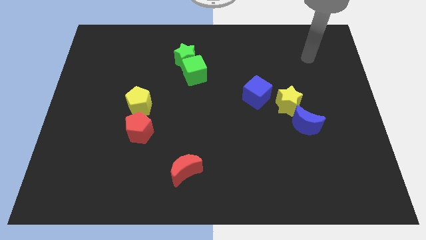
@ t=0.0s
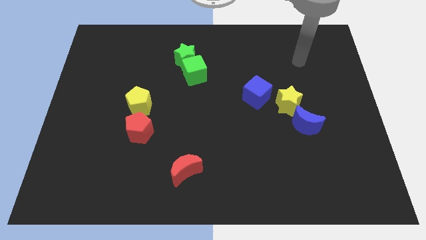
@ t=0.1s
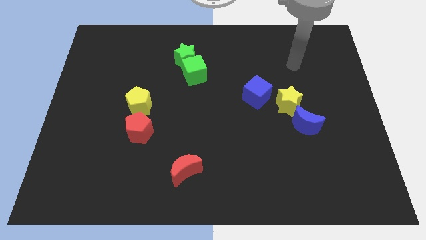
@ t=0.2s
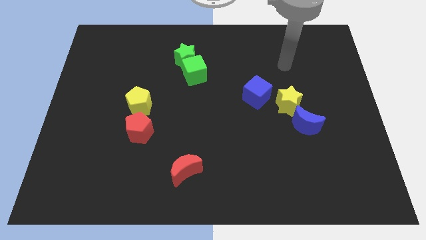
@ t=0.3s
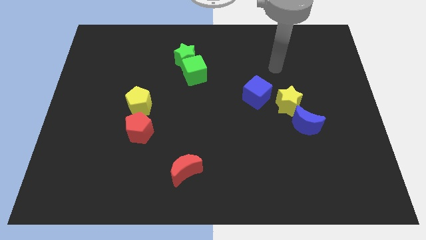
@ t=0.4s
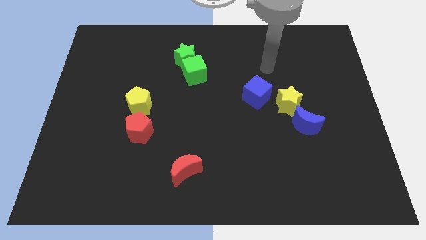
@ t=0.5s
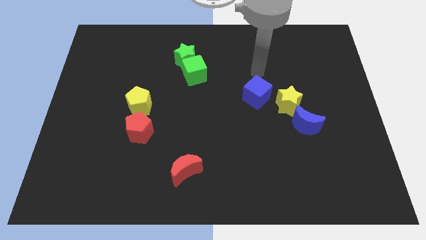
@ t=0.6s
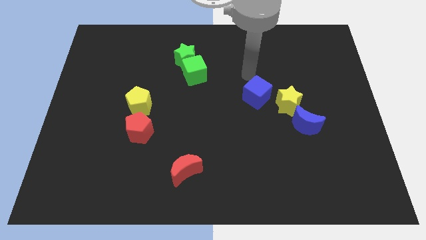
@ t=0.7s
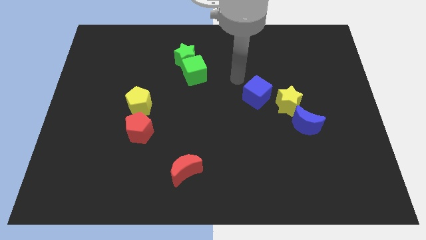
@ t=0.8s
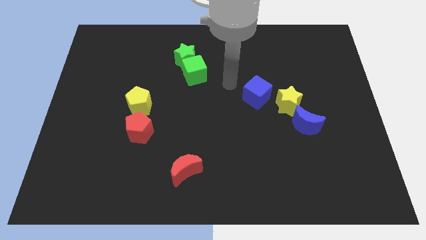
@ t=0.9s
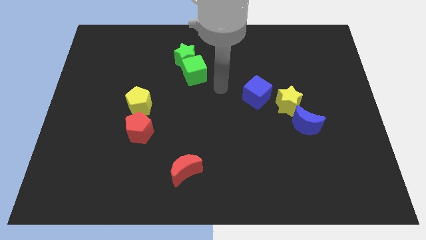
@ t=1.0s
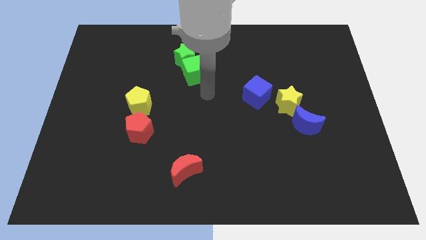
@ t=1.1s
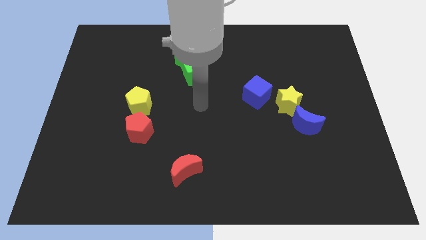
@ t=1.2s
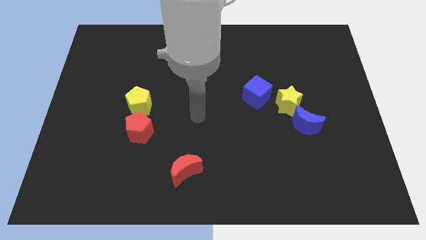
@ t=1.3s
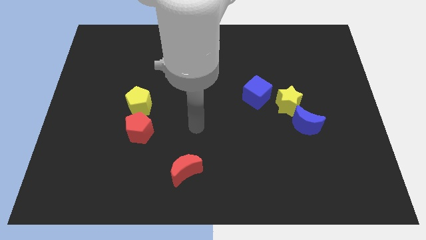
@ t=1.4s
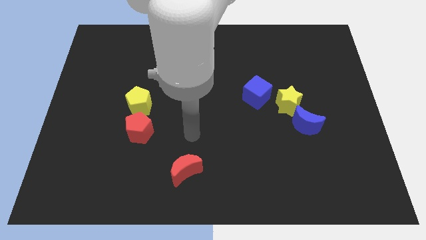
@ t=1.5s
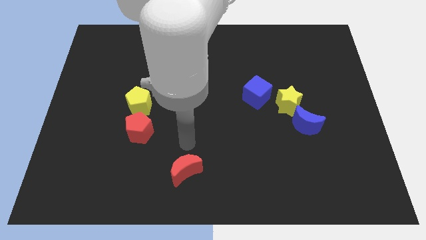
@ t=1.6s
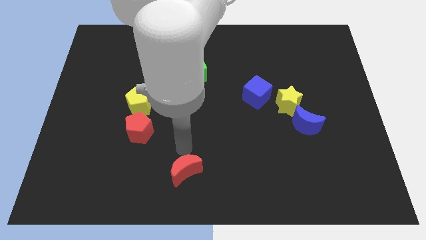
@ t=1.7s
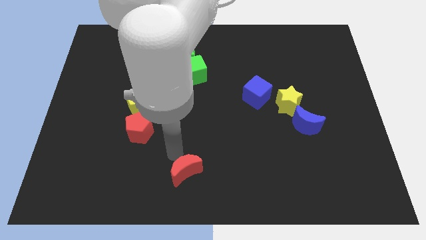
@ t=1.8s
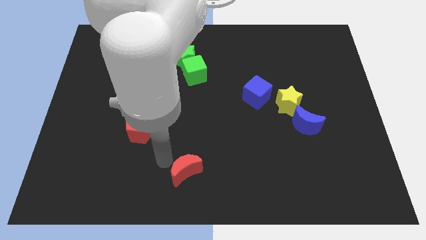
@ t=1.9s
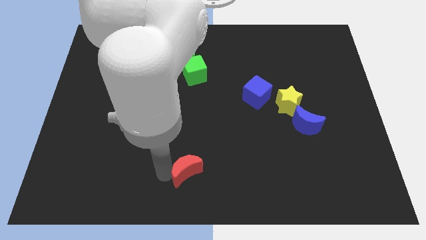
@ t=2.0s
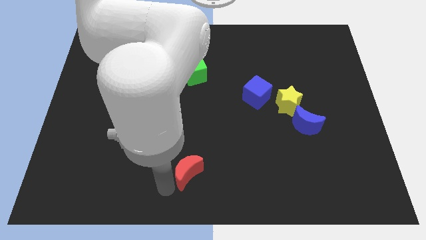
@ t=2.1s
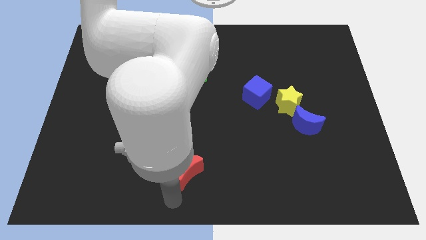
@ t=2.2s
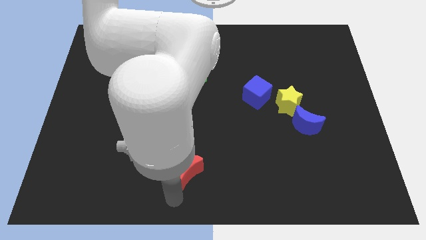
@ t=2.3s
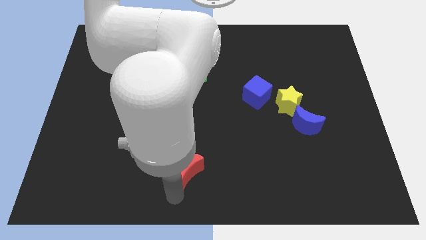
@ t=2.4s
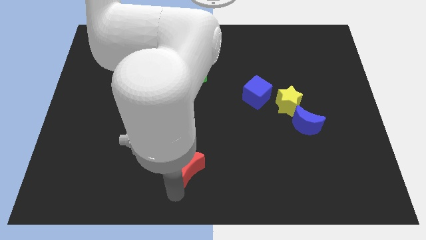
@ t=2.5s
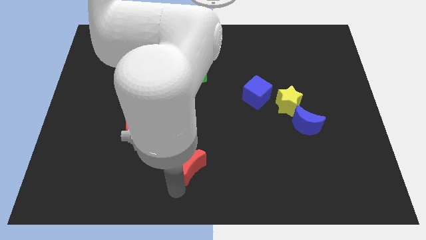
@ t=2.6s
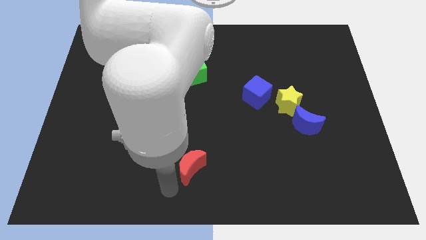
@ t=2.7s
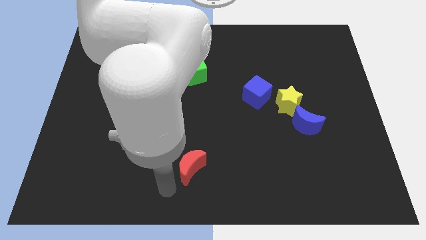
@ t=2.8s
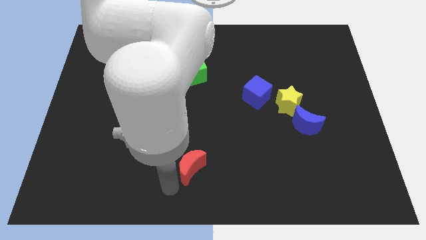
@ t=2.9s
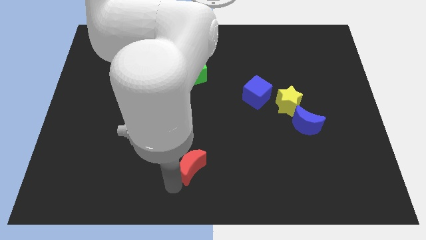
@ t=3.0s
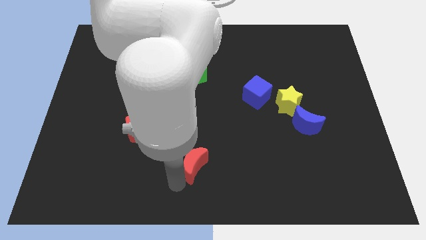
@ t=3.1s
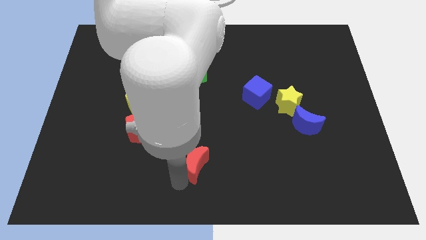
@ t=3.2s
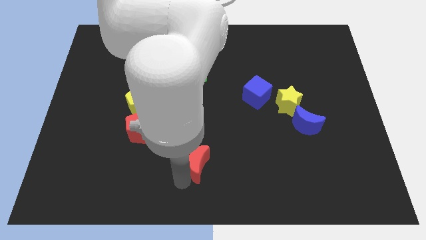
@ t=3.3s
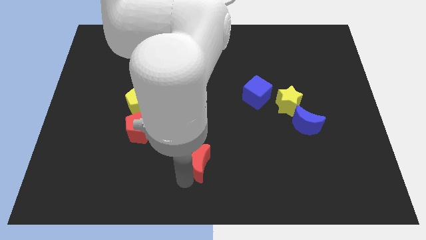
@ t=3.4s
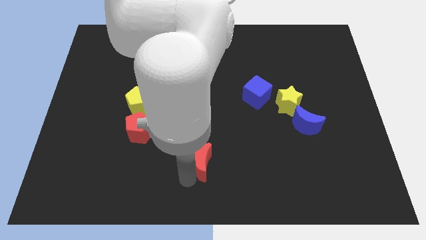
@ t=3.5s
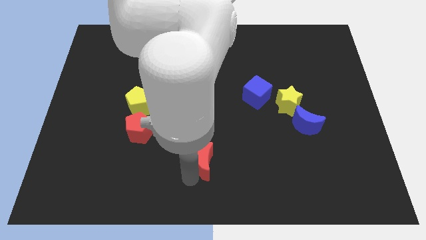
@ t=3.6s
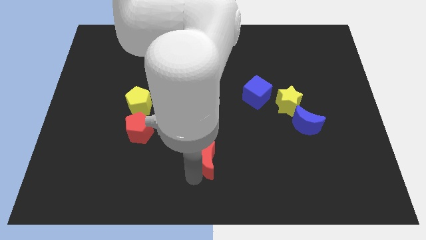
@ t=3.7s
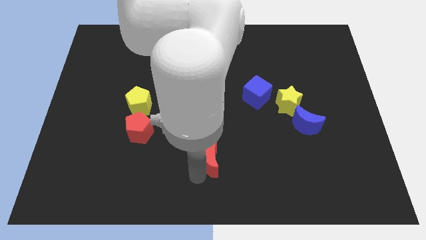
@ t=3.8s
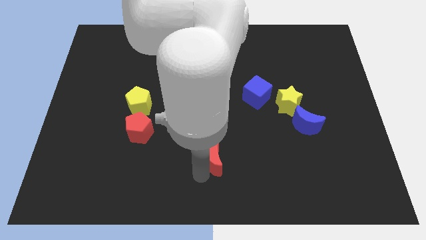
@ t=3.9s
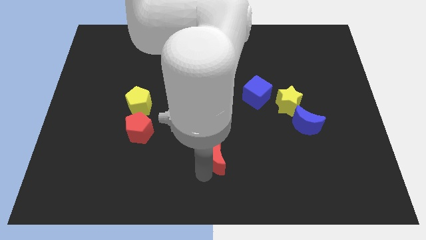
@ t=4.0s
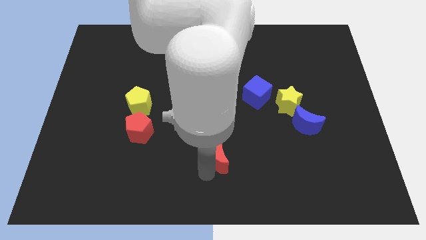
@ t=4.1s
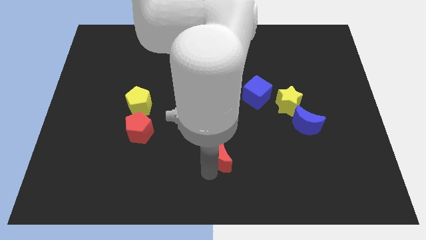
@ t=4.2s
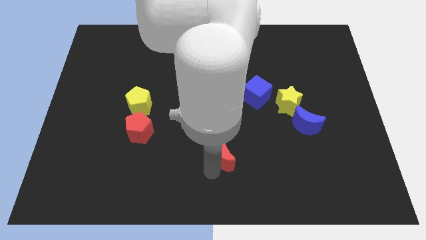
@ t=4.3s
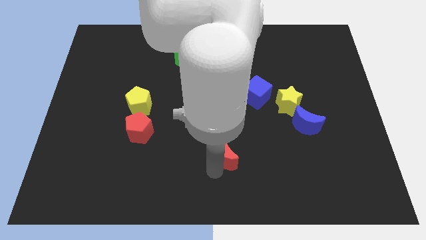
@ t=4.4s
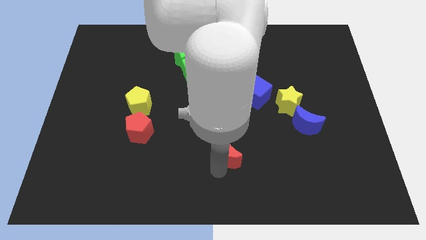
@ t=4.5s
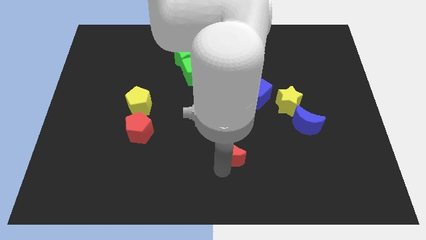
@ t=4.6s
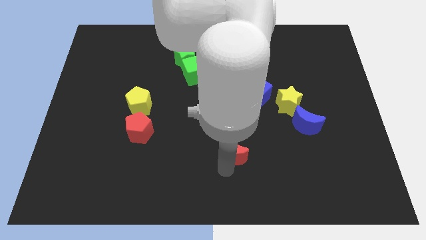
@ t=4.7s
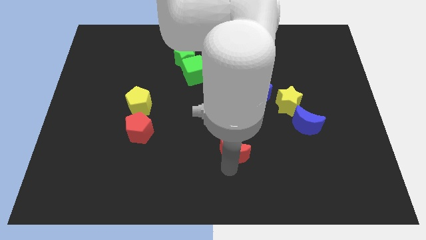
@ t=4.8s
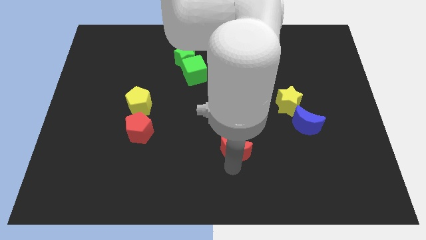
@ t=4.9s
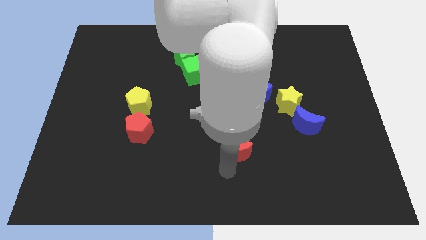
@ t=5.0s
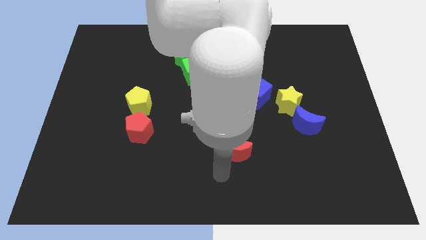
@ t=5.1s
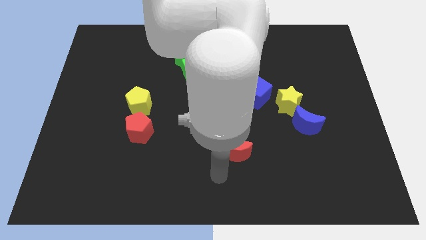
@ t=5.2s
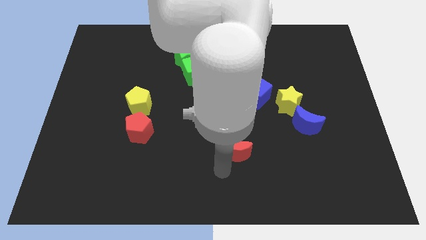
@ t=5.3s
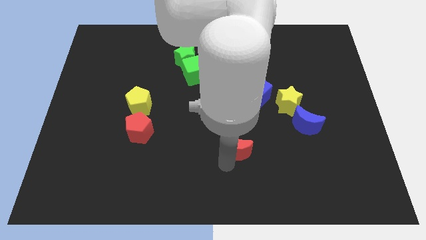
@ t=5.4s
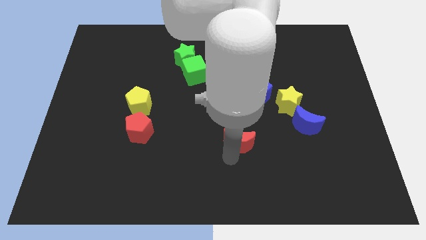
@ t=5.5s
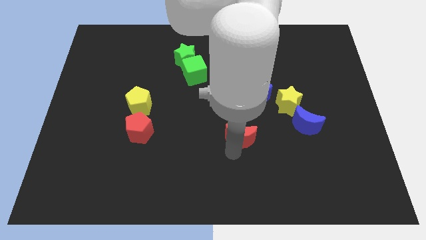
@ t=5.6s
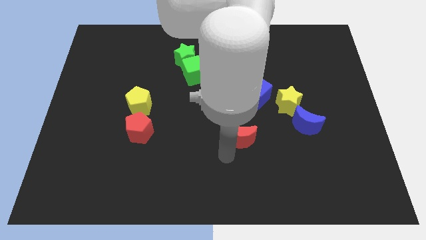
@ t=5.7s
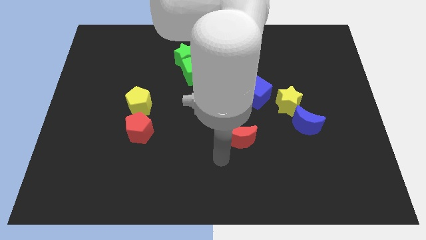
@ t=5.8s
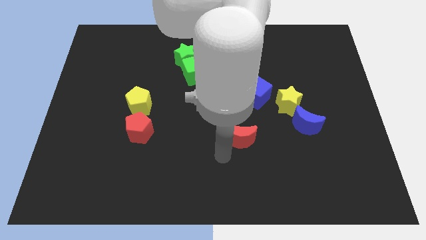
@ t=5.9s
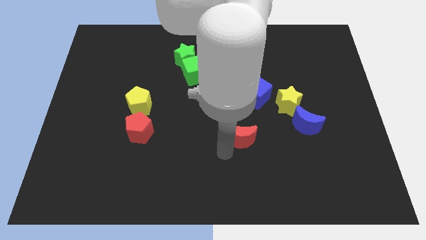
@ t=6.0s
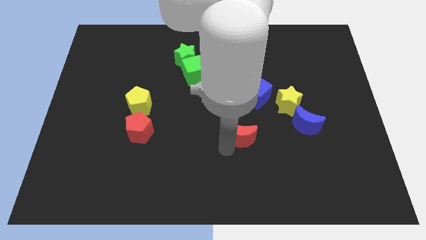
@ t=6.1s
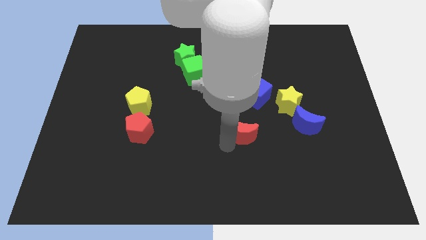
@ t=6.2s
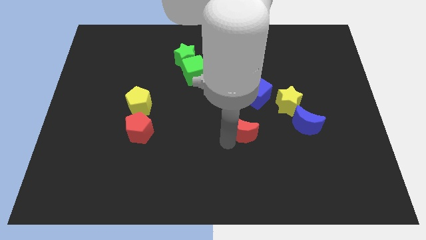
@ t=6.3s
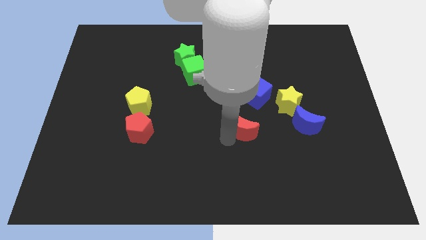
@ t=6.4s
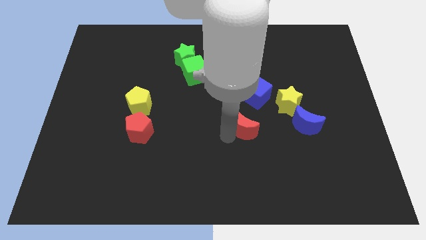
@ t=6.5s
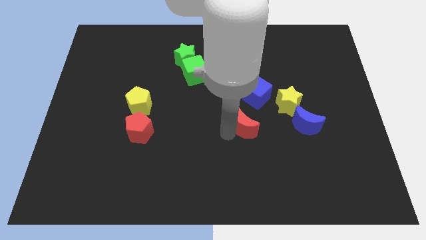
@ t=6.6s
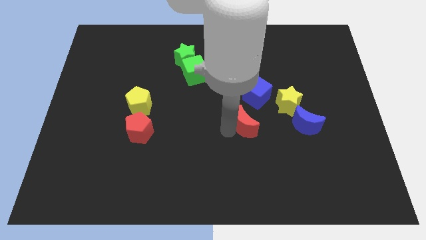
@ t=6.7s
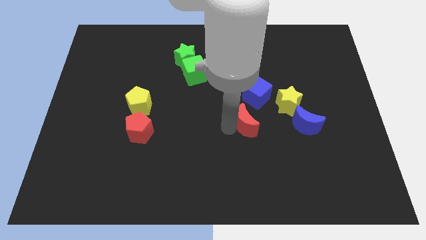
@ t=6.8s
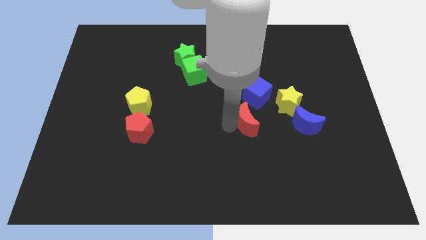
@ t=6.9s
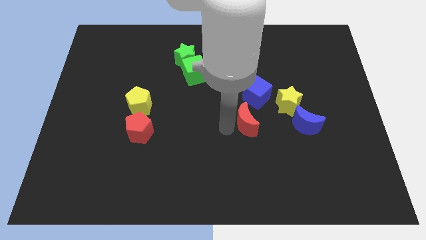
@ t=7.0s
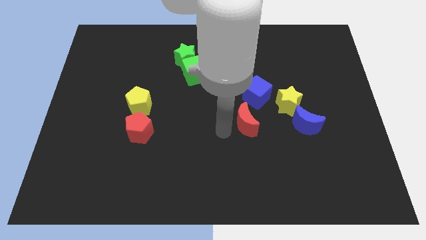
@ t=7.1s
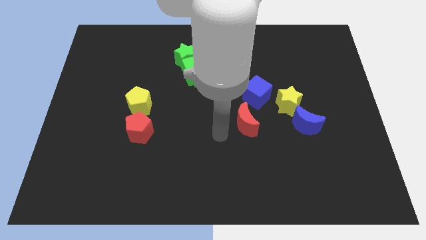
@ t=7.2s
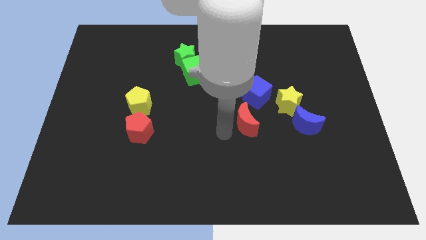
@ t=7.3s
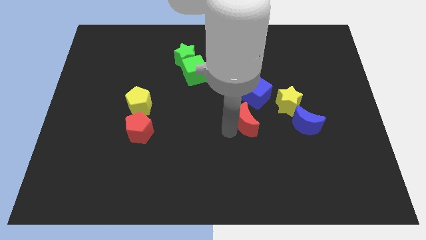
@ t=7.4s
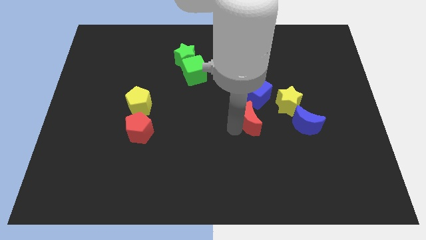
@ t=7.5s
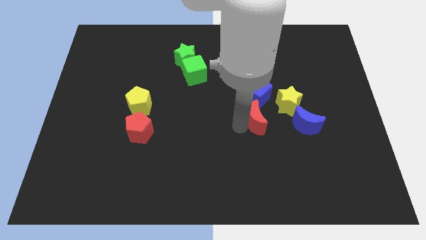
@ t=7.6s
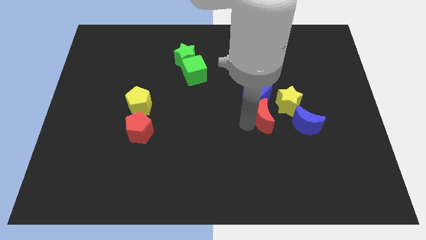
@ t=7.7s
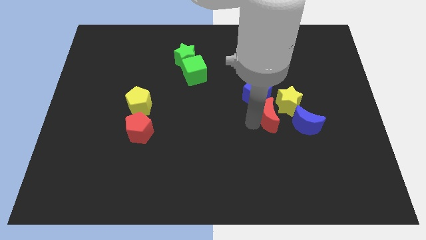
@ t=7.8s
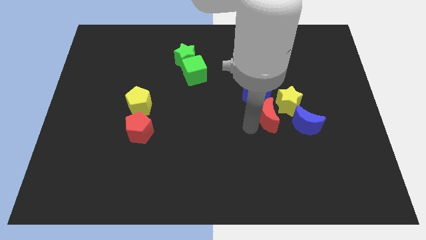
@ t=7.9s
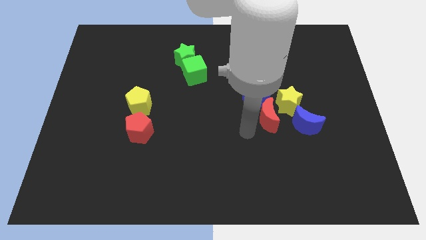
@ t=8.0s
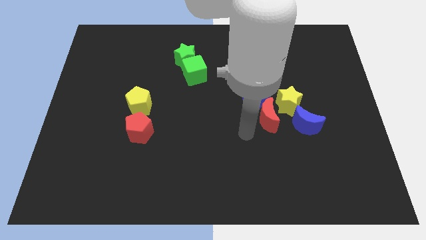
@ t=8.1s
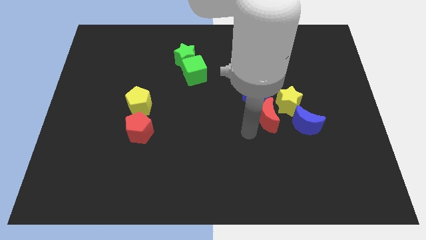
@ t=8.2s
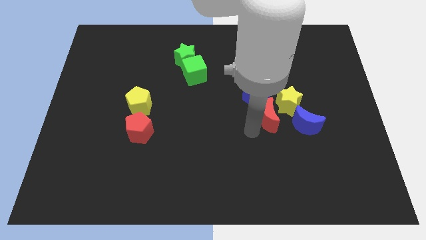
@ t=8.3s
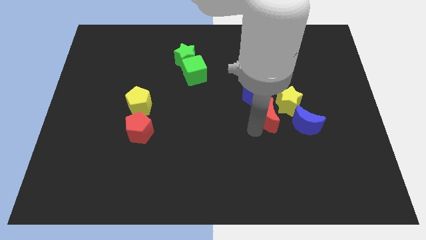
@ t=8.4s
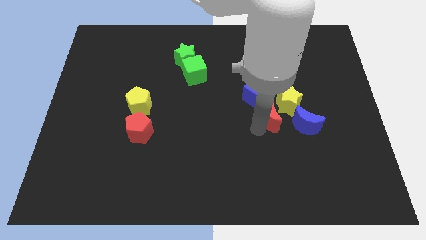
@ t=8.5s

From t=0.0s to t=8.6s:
slide the red moon next to the yellow star
